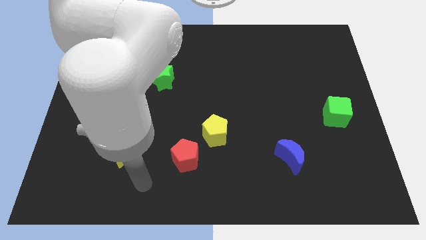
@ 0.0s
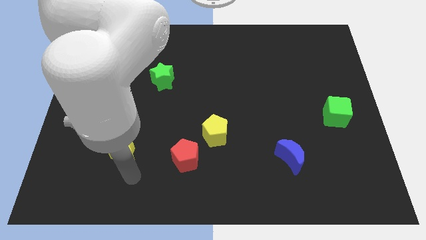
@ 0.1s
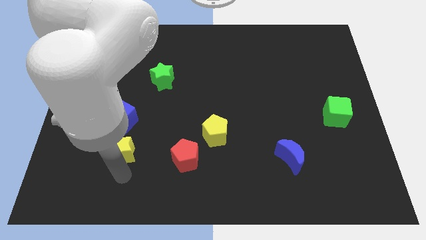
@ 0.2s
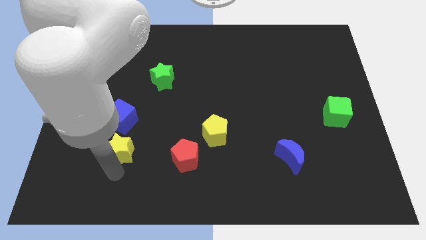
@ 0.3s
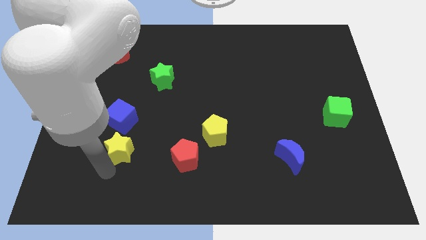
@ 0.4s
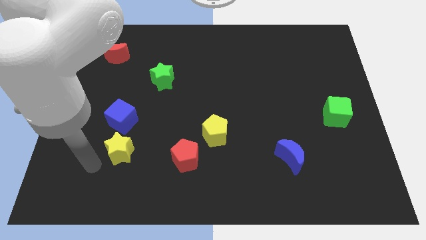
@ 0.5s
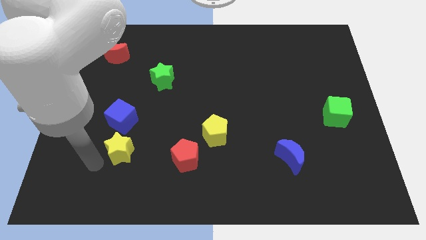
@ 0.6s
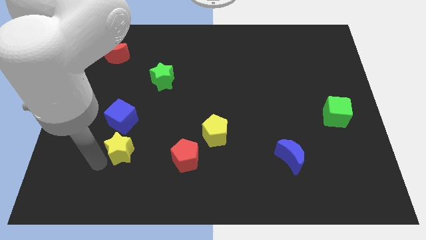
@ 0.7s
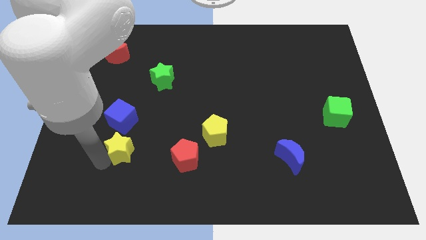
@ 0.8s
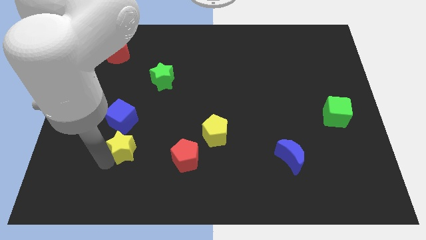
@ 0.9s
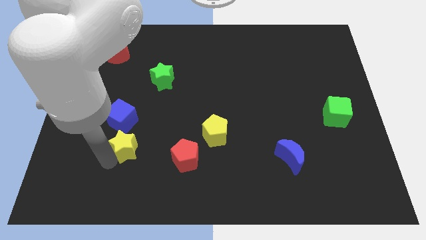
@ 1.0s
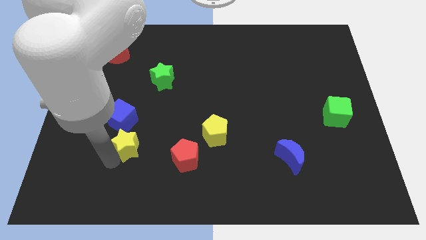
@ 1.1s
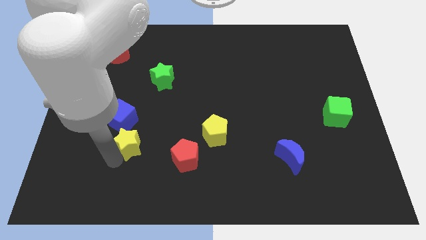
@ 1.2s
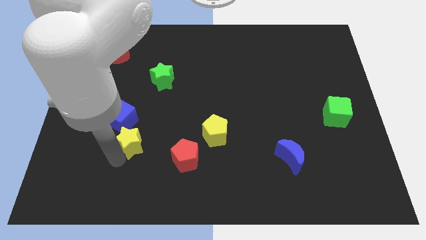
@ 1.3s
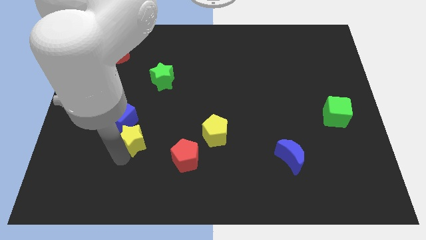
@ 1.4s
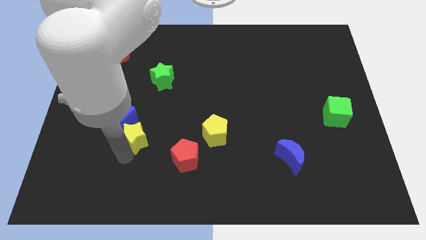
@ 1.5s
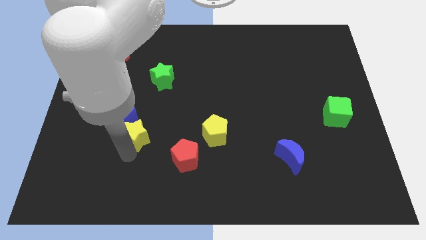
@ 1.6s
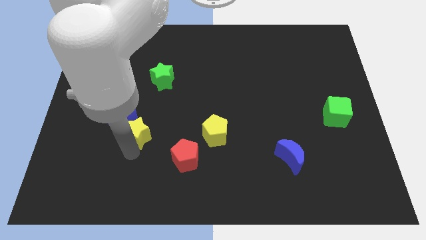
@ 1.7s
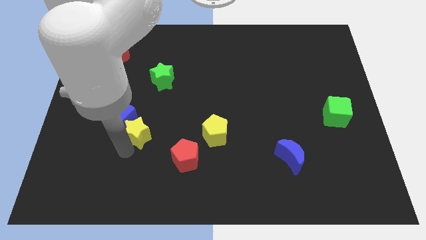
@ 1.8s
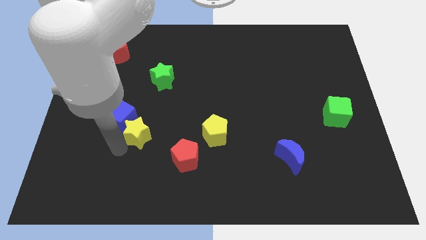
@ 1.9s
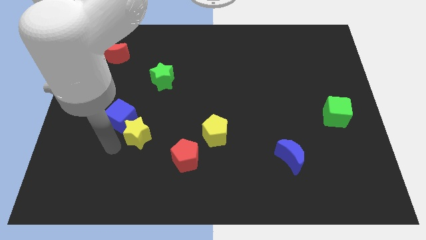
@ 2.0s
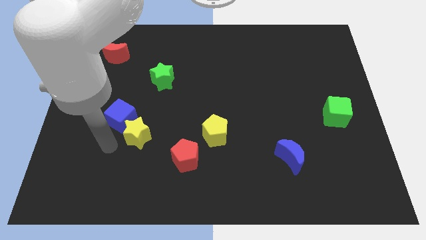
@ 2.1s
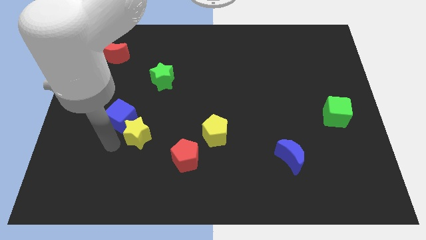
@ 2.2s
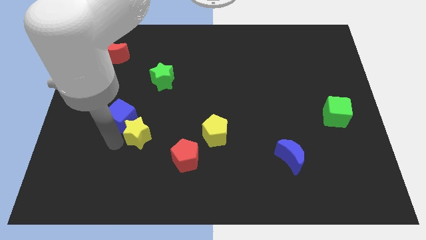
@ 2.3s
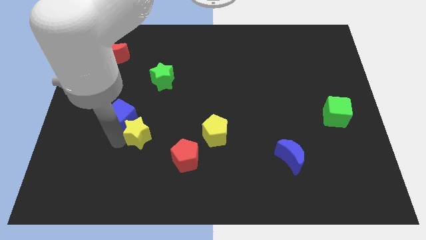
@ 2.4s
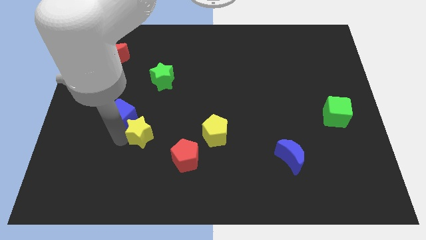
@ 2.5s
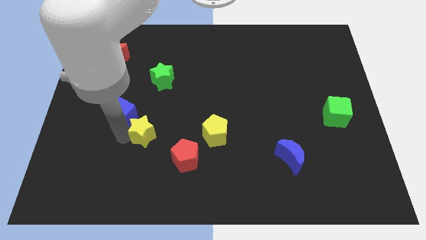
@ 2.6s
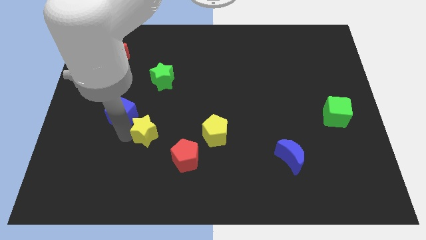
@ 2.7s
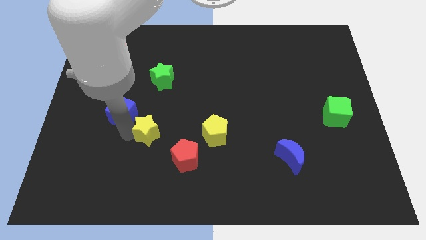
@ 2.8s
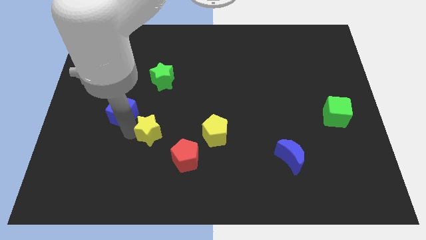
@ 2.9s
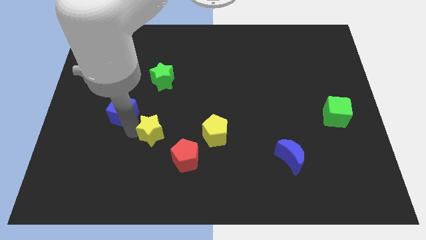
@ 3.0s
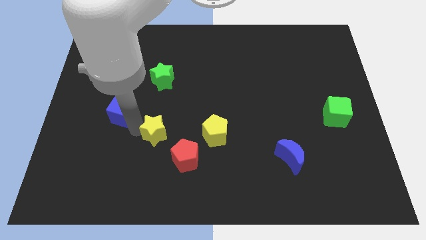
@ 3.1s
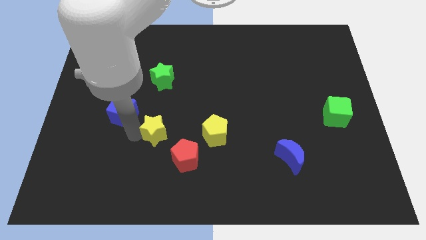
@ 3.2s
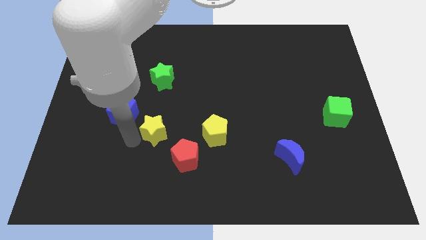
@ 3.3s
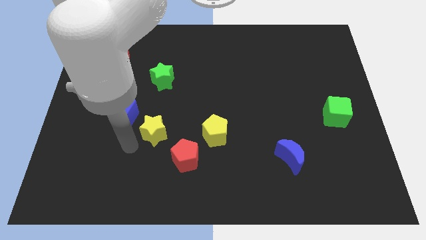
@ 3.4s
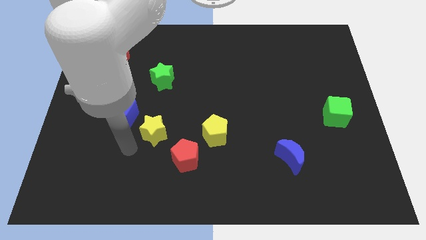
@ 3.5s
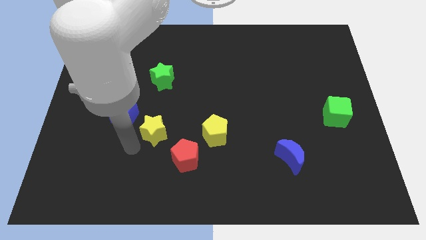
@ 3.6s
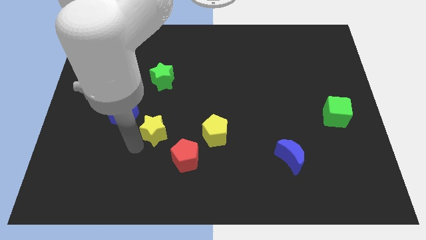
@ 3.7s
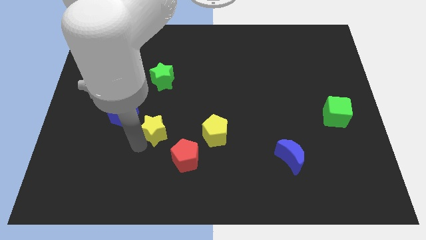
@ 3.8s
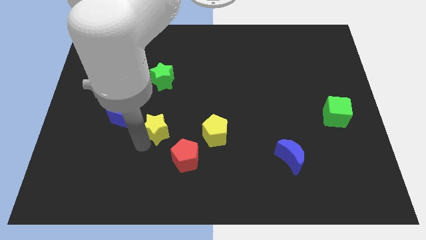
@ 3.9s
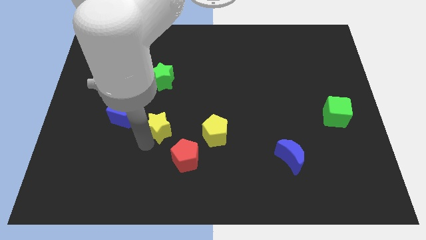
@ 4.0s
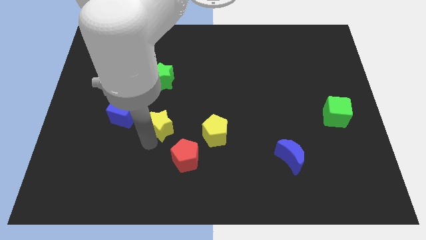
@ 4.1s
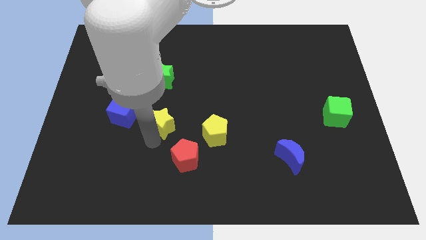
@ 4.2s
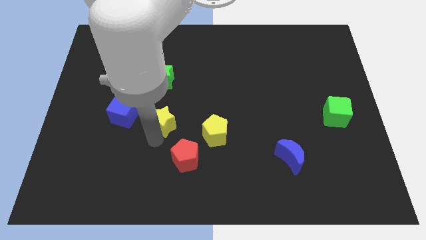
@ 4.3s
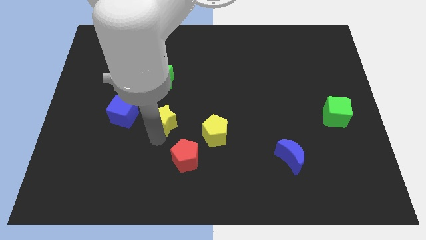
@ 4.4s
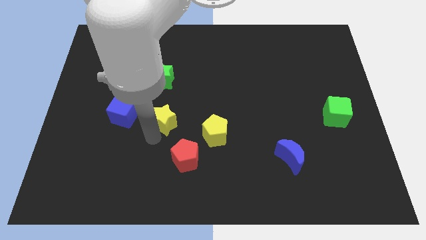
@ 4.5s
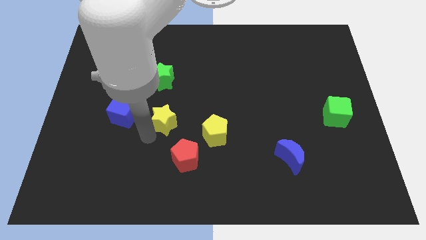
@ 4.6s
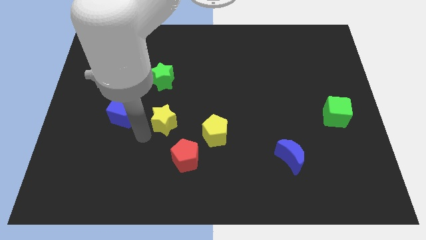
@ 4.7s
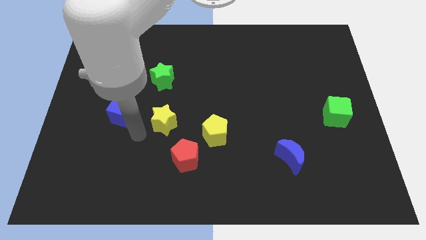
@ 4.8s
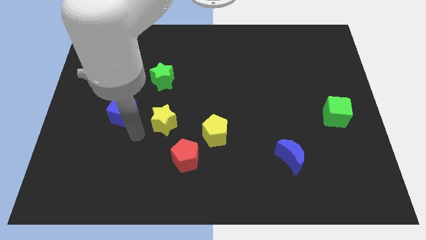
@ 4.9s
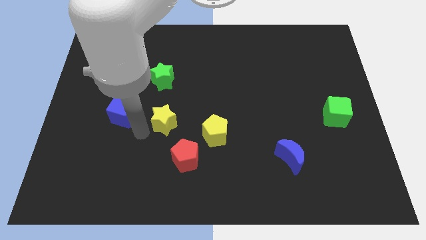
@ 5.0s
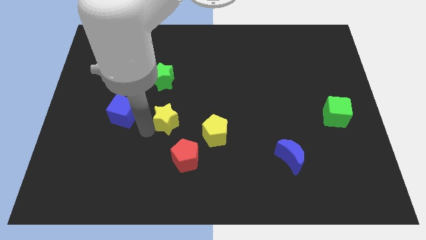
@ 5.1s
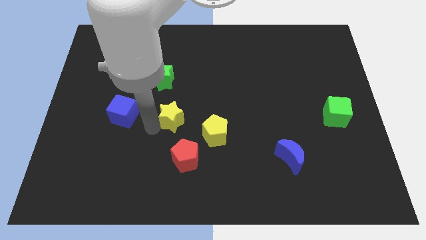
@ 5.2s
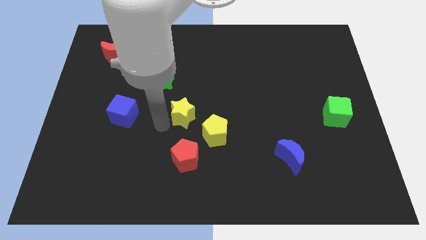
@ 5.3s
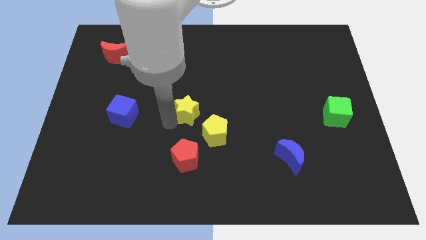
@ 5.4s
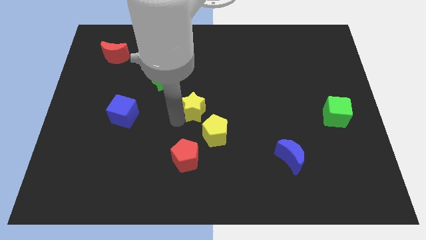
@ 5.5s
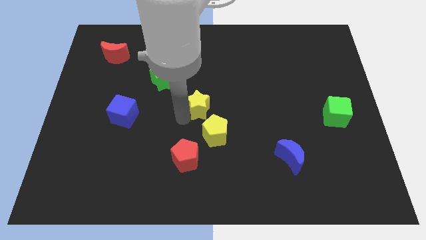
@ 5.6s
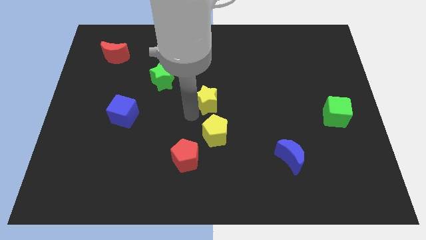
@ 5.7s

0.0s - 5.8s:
push the yellow star up and right diagonally

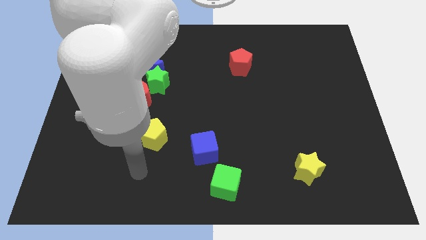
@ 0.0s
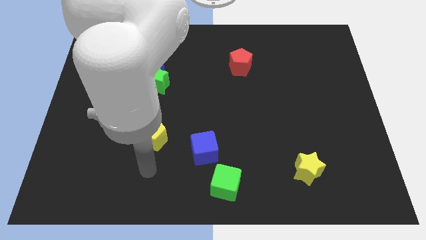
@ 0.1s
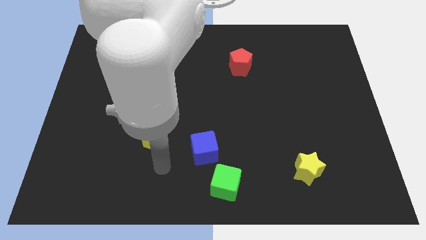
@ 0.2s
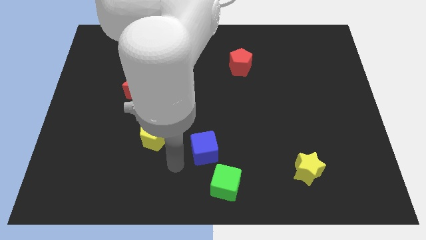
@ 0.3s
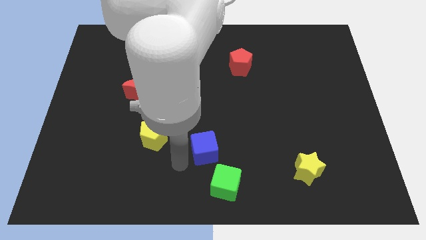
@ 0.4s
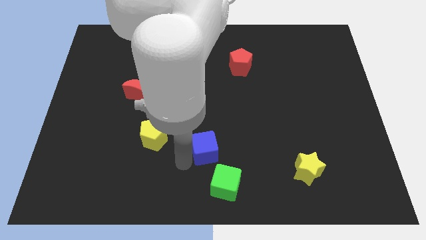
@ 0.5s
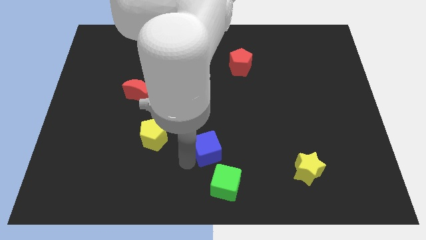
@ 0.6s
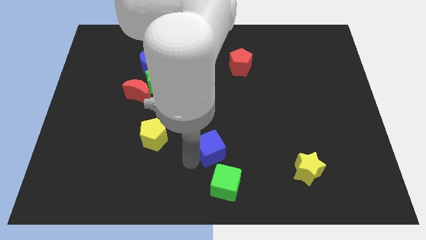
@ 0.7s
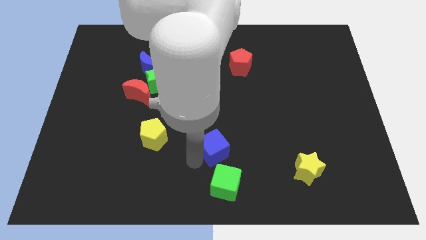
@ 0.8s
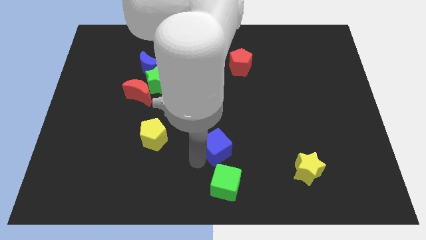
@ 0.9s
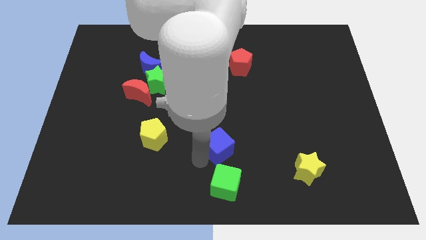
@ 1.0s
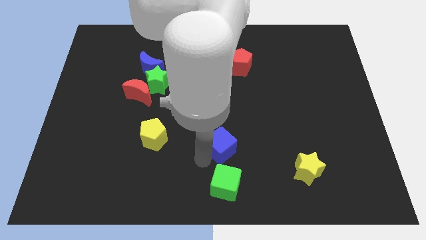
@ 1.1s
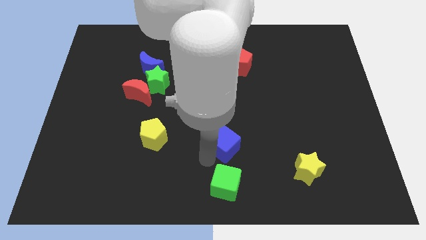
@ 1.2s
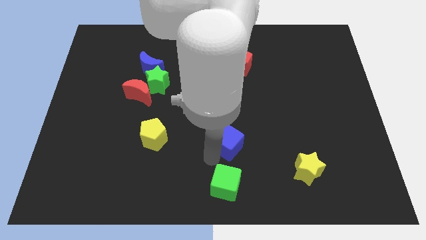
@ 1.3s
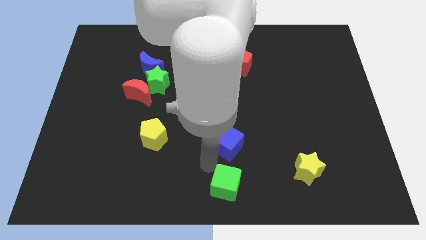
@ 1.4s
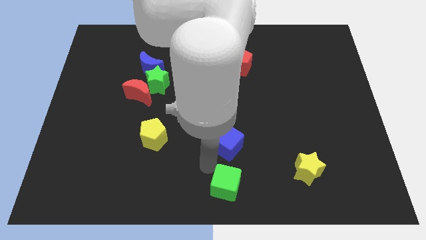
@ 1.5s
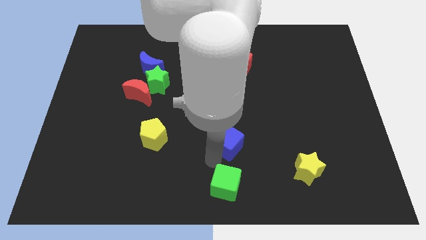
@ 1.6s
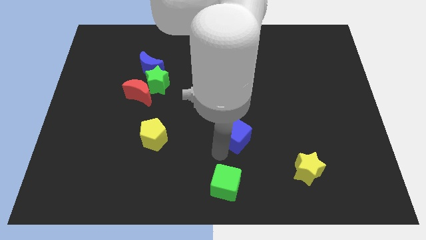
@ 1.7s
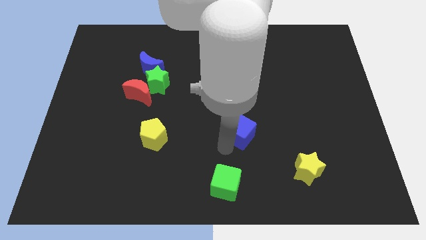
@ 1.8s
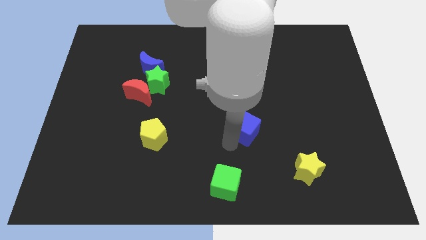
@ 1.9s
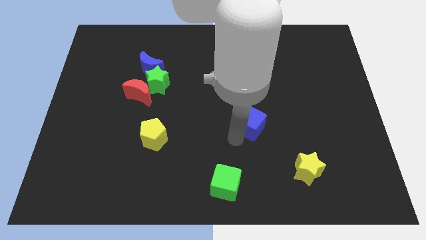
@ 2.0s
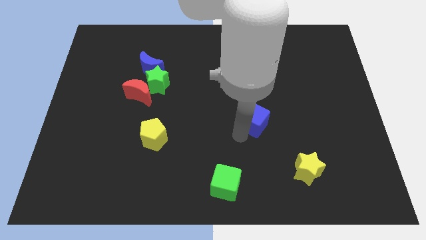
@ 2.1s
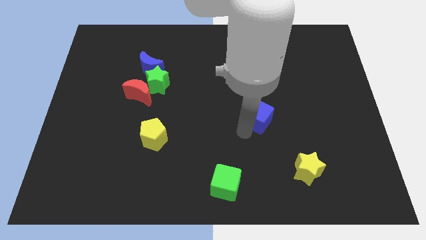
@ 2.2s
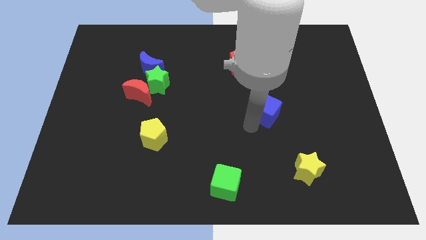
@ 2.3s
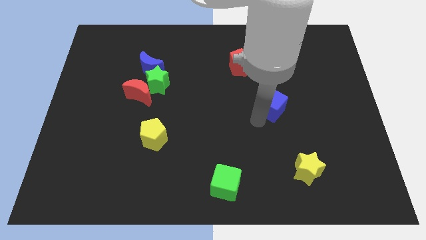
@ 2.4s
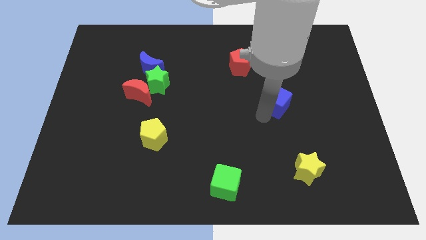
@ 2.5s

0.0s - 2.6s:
push the blue cube upwards and right

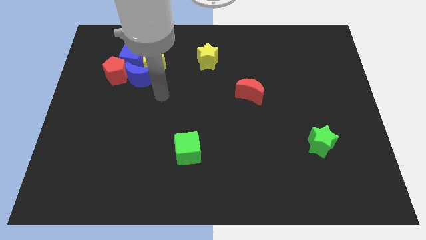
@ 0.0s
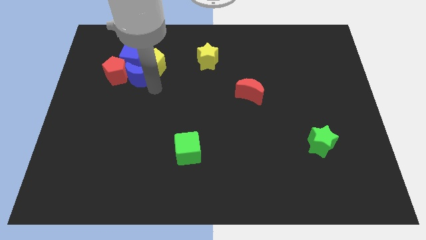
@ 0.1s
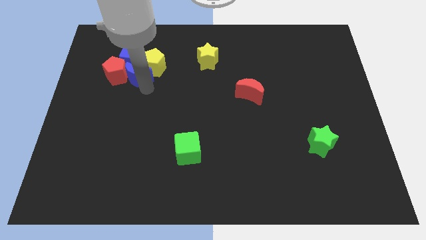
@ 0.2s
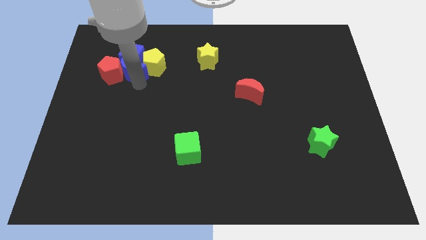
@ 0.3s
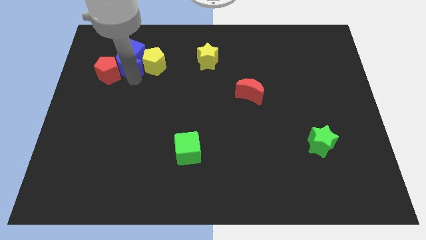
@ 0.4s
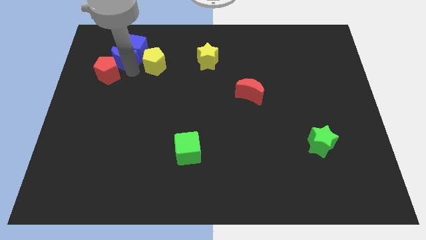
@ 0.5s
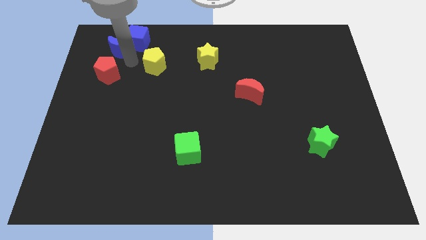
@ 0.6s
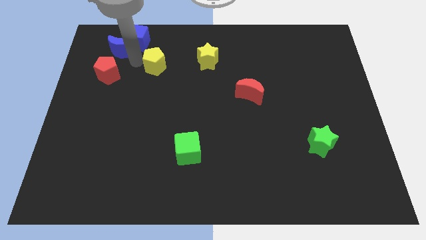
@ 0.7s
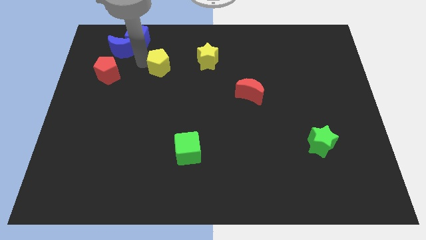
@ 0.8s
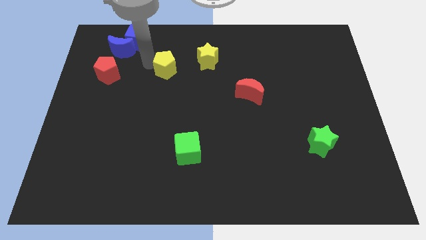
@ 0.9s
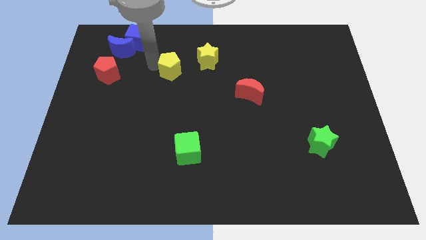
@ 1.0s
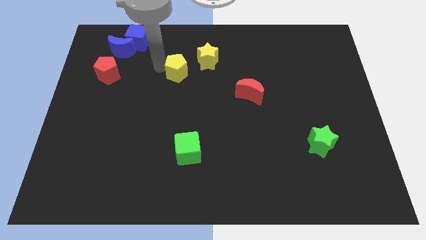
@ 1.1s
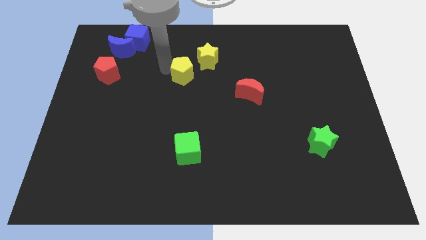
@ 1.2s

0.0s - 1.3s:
slide the yellow pentagon a little to the right
